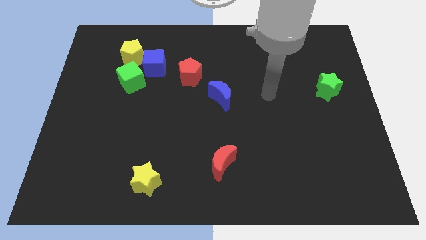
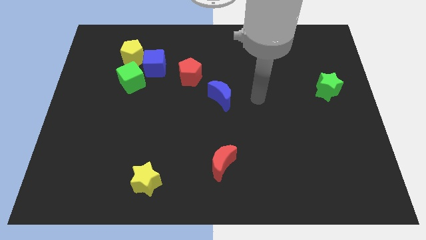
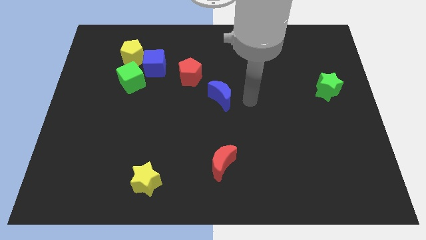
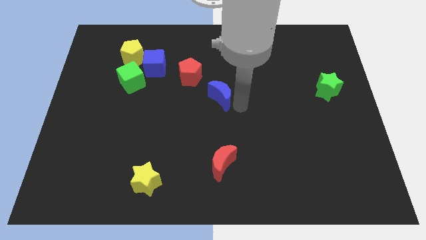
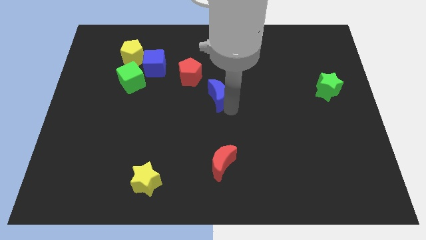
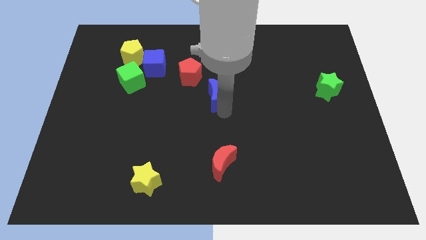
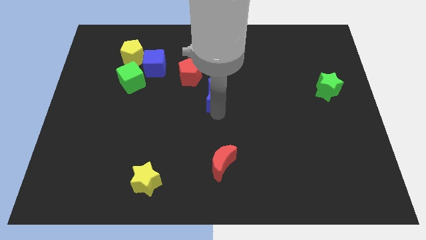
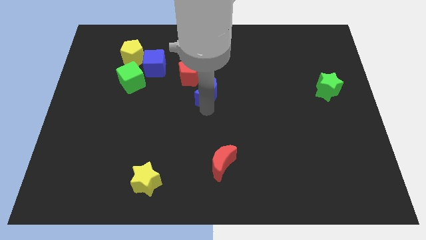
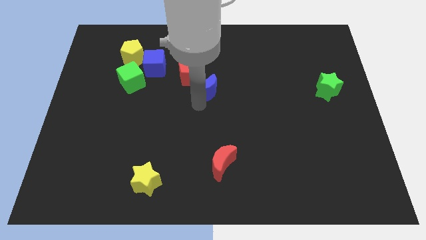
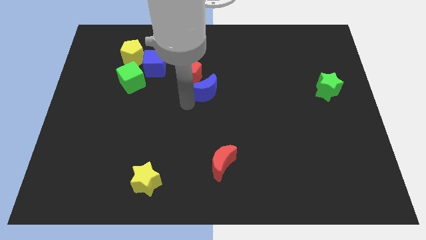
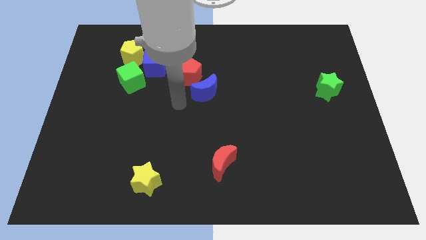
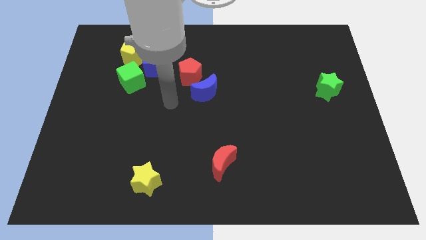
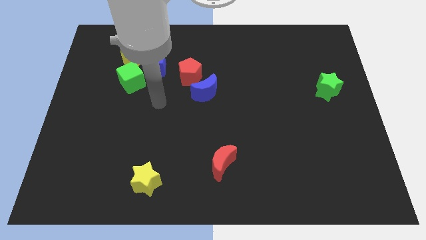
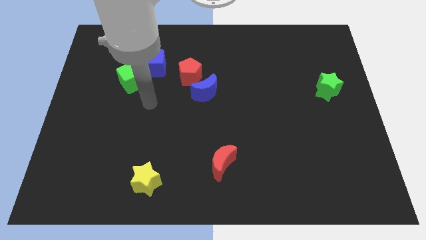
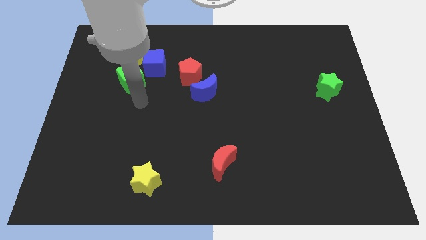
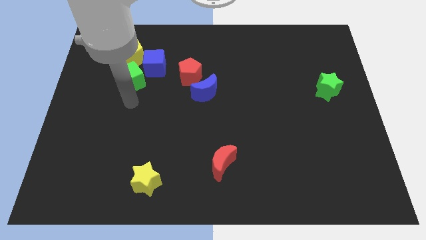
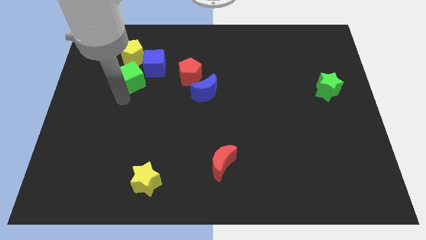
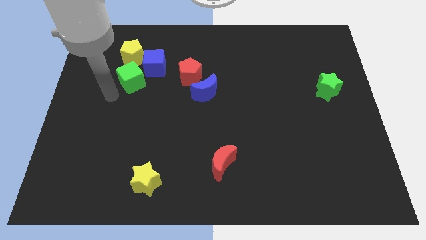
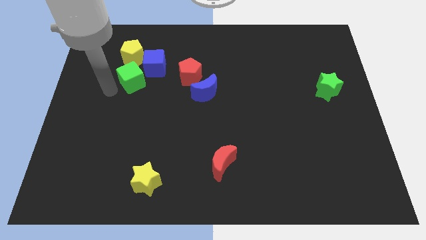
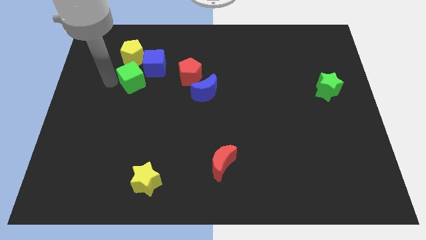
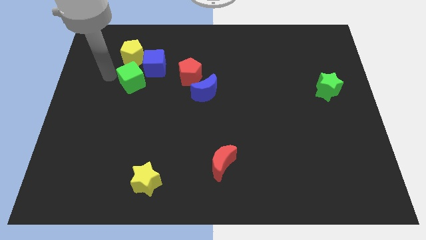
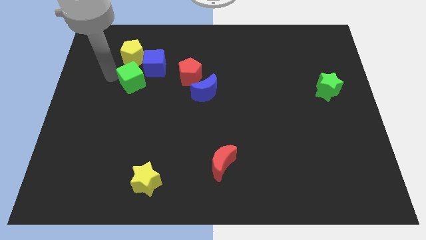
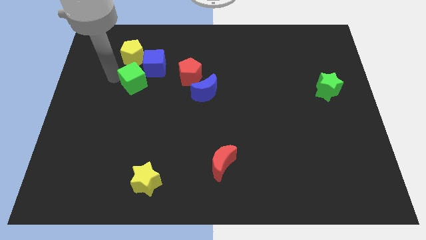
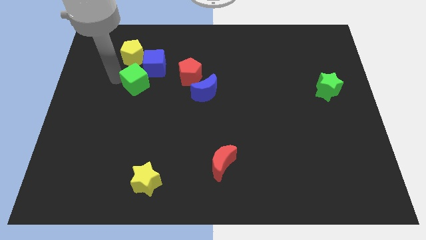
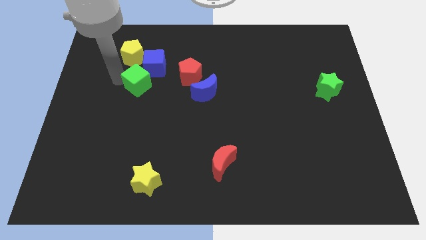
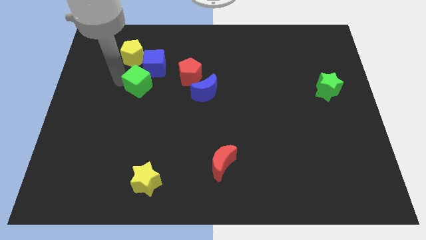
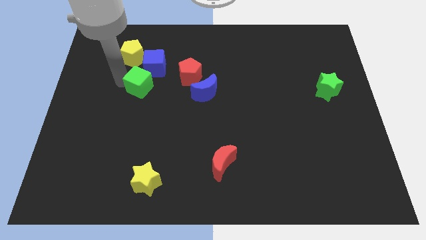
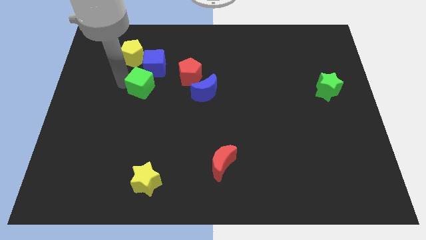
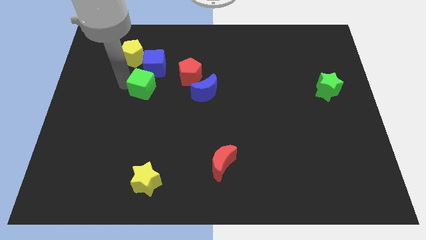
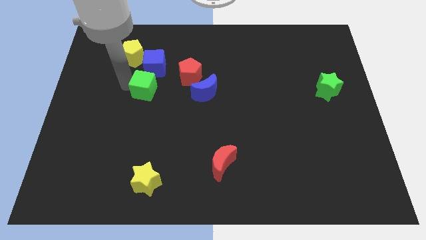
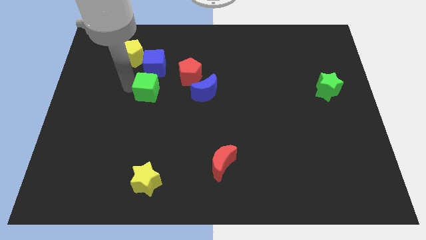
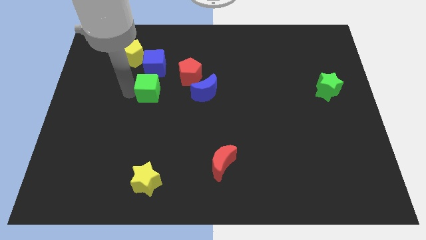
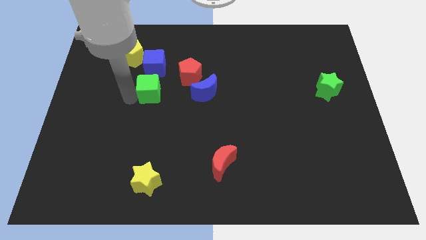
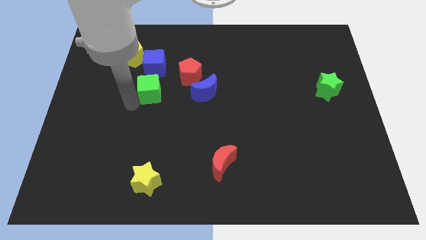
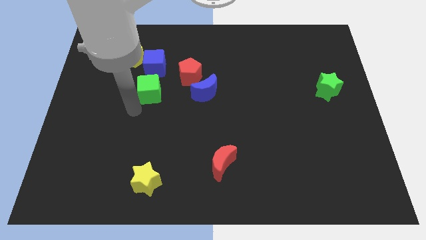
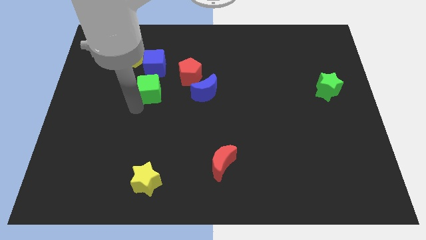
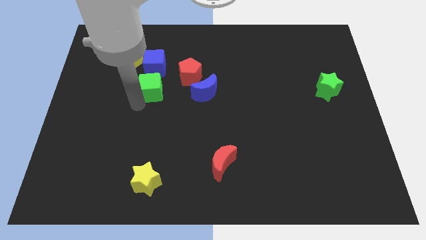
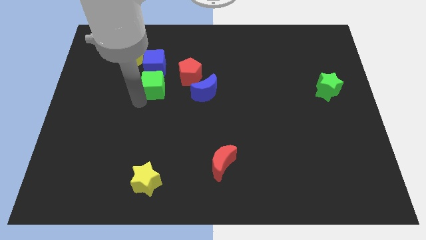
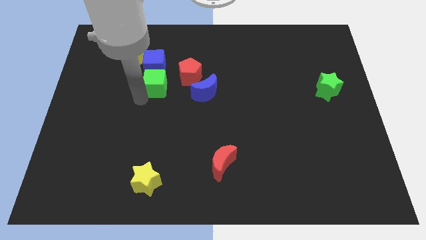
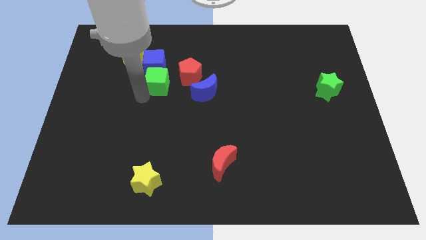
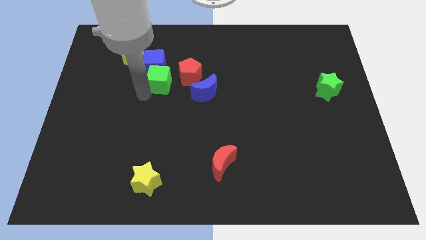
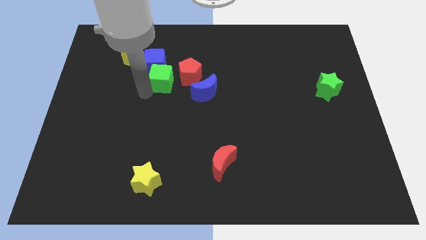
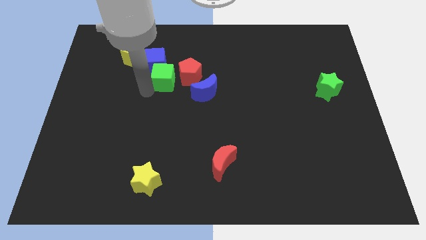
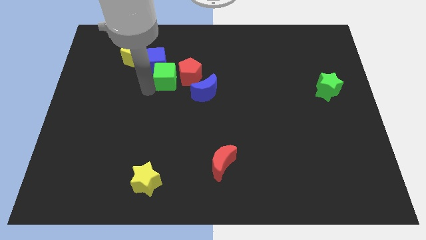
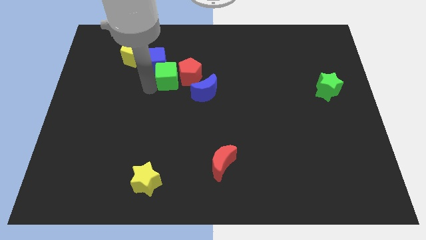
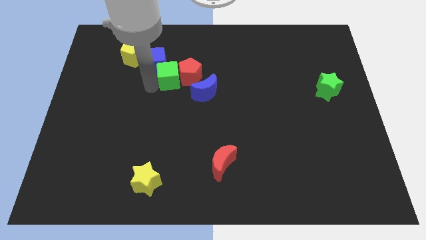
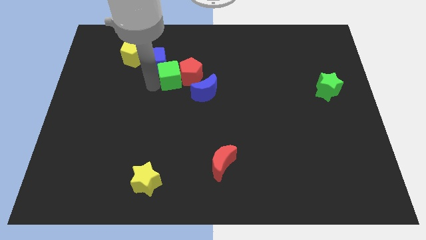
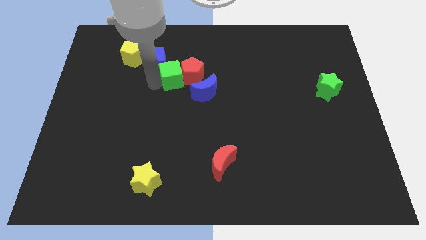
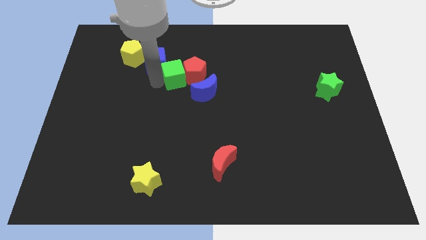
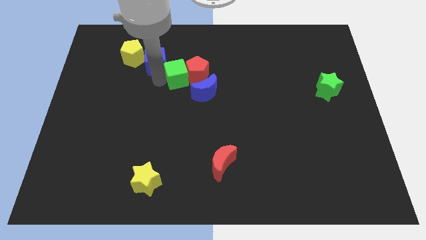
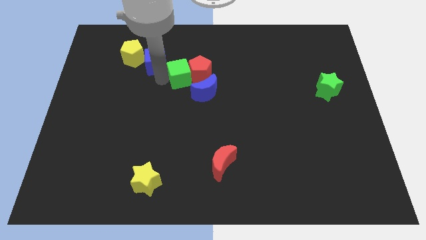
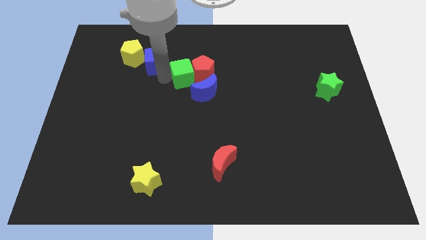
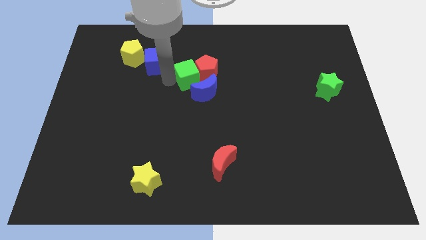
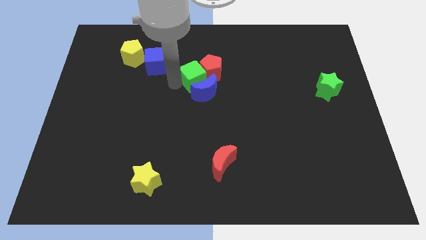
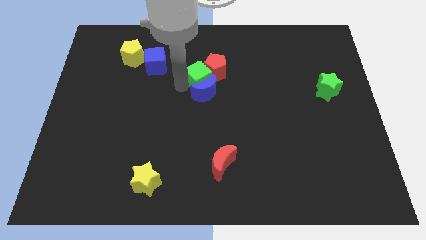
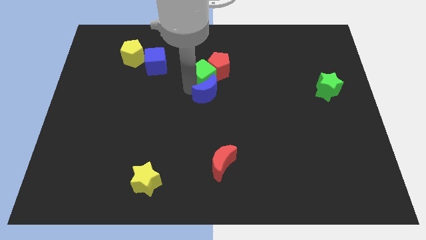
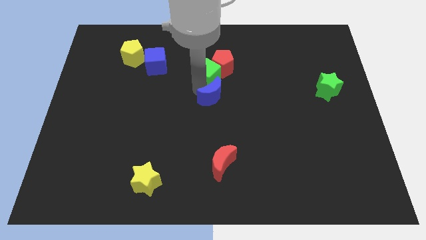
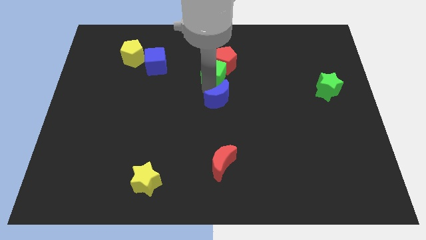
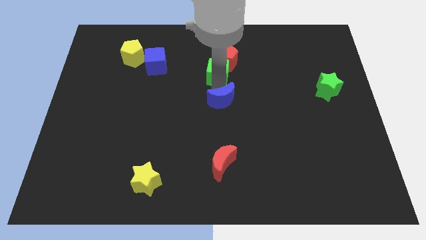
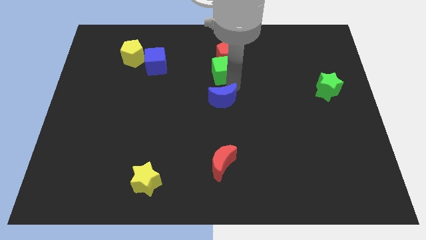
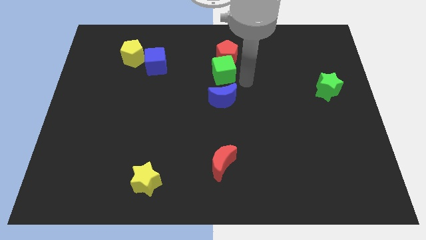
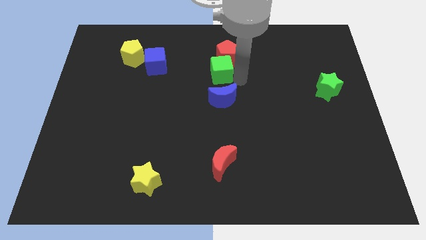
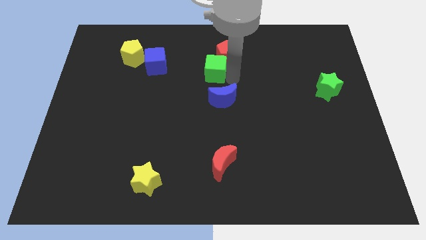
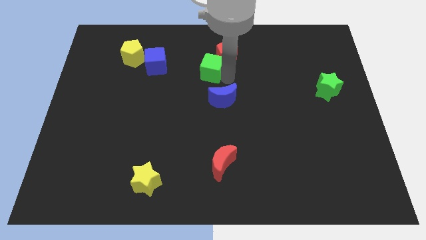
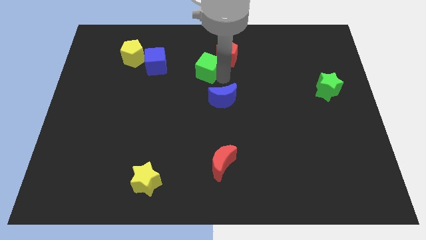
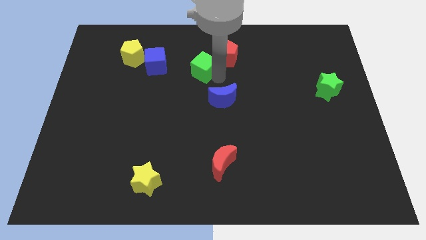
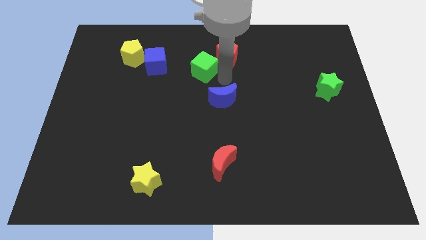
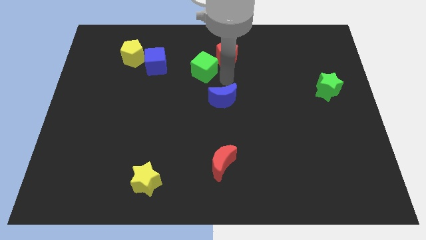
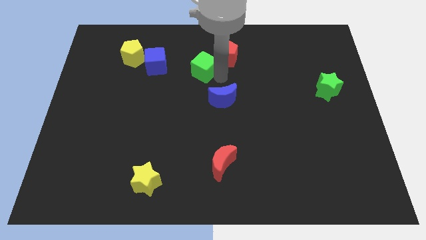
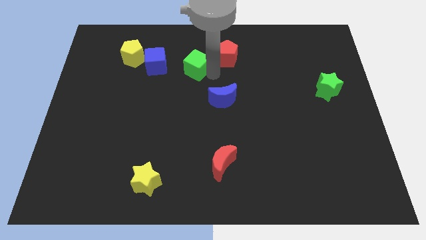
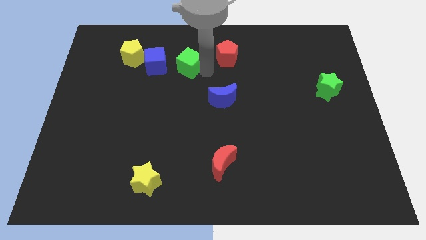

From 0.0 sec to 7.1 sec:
slide the green cube right of the yellow pentagon
